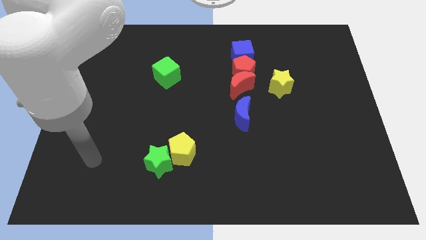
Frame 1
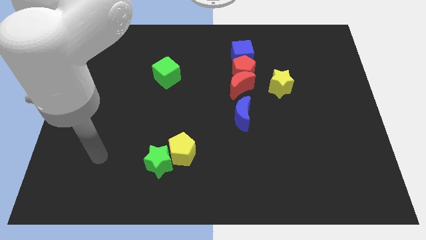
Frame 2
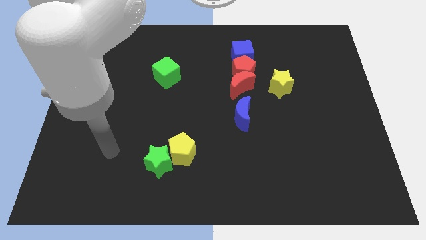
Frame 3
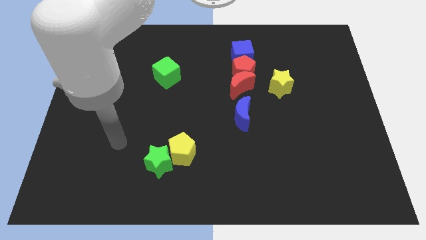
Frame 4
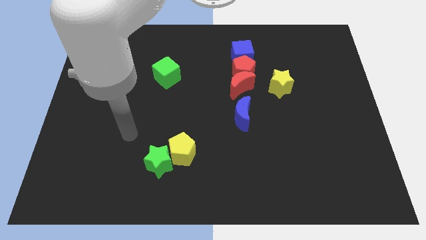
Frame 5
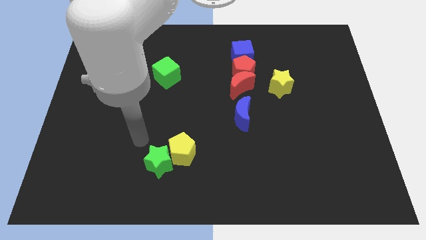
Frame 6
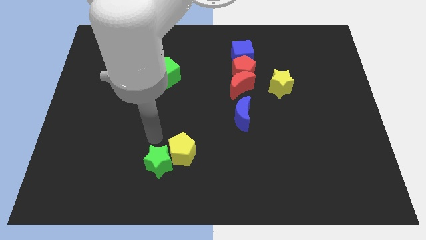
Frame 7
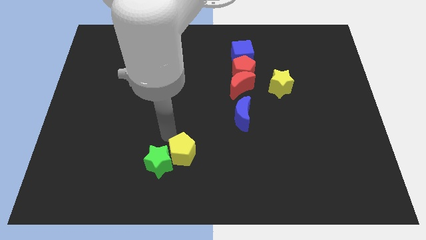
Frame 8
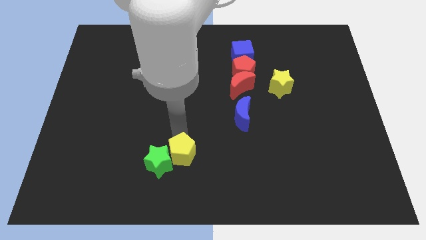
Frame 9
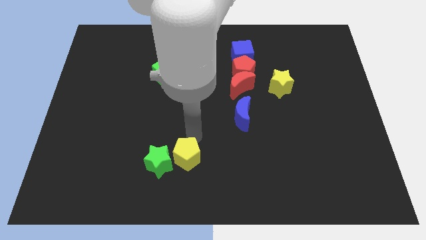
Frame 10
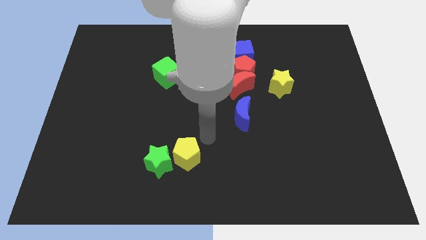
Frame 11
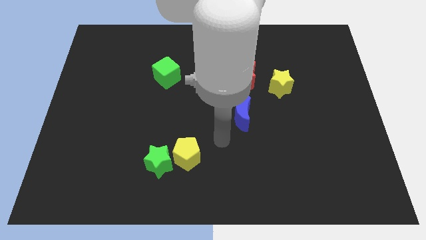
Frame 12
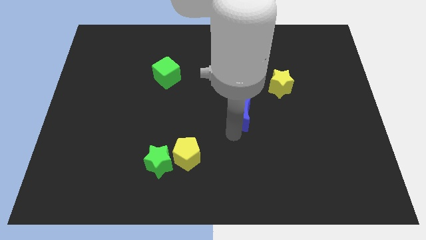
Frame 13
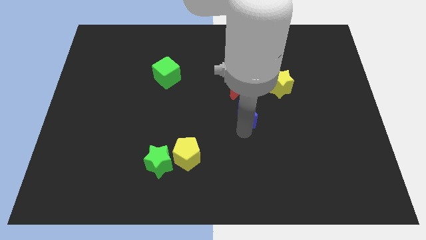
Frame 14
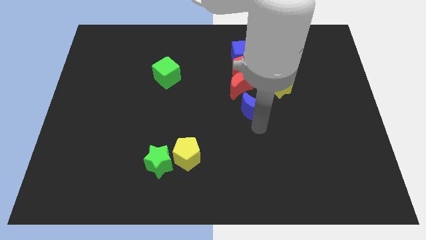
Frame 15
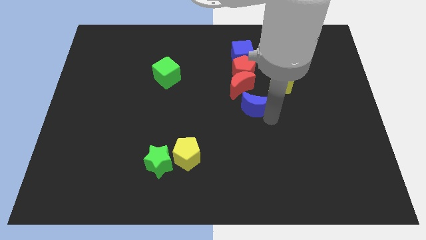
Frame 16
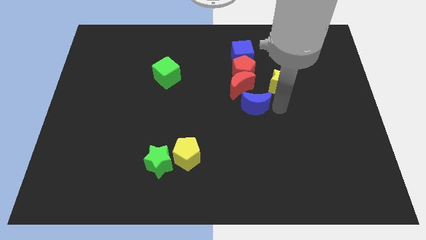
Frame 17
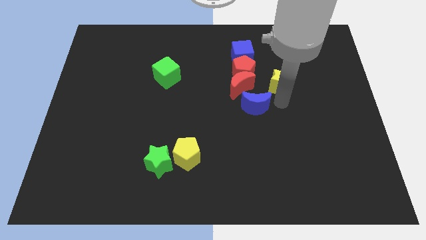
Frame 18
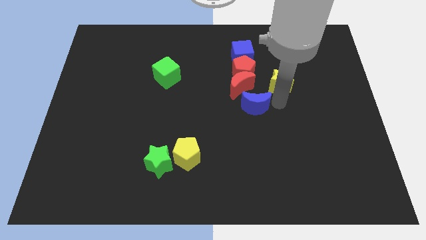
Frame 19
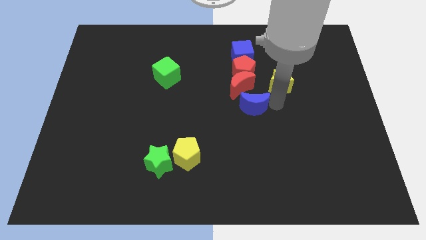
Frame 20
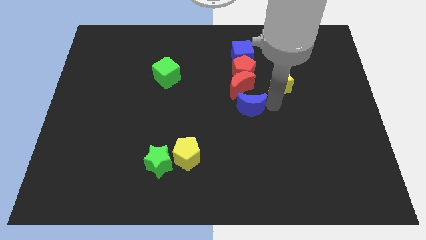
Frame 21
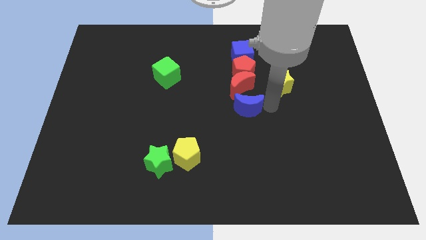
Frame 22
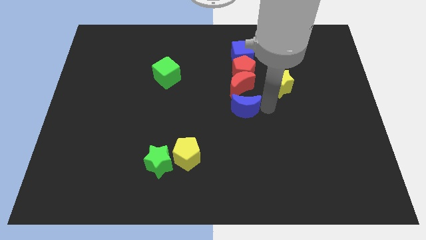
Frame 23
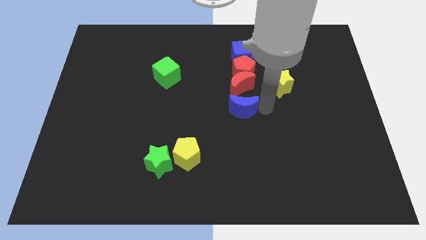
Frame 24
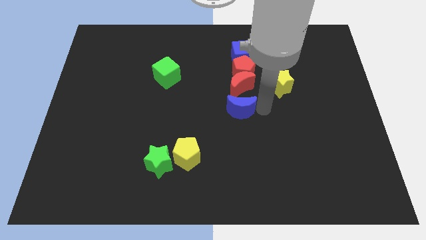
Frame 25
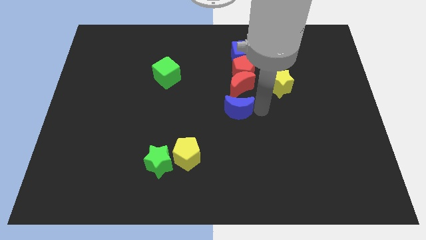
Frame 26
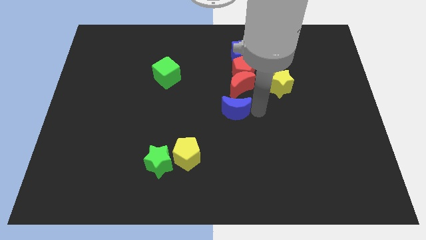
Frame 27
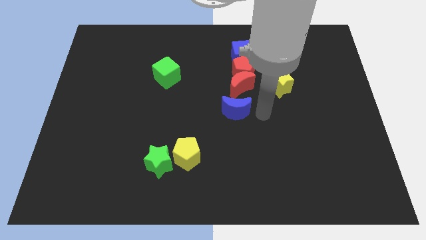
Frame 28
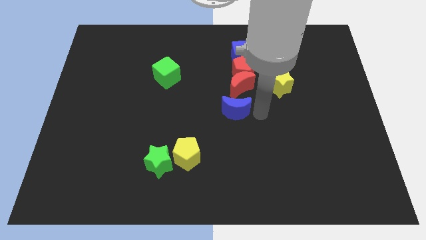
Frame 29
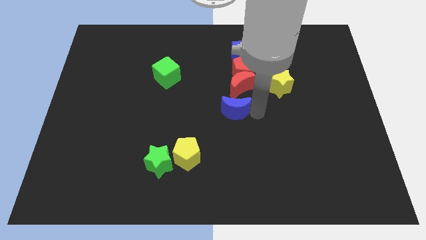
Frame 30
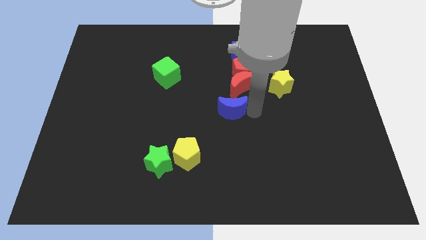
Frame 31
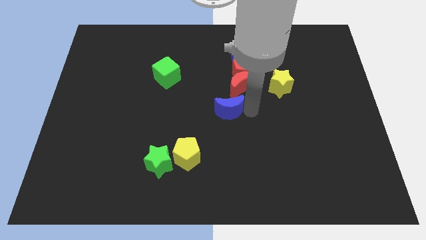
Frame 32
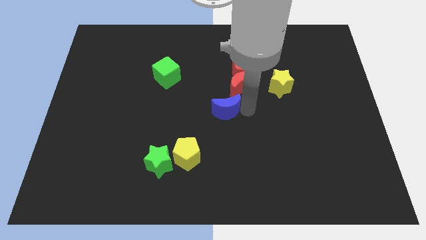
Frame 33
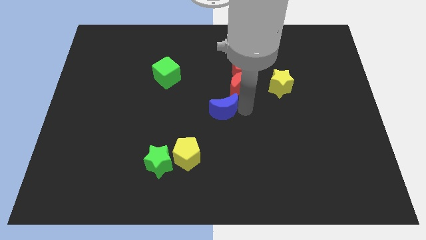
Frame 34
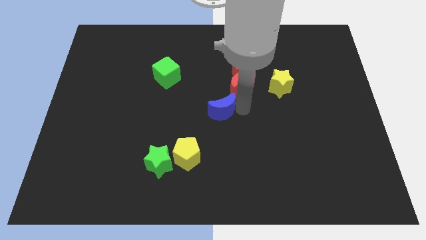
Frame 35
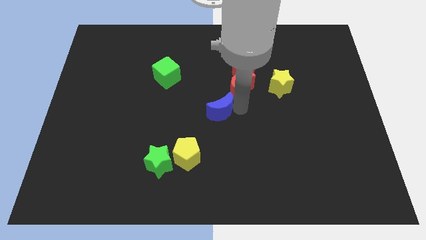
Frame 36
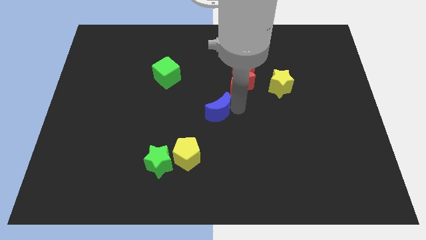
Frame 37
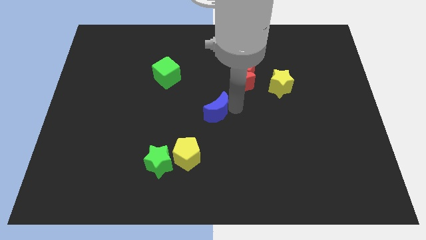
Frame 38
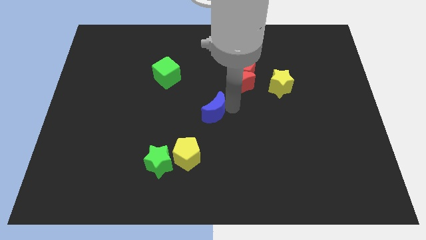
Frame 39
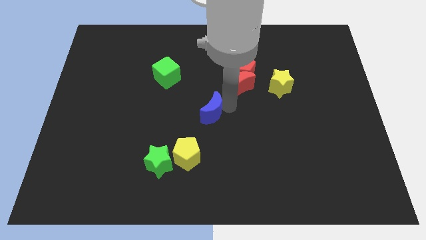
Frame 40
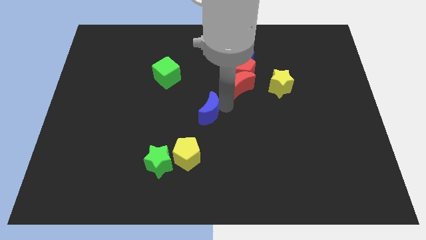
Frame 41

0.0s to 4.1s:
push the blue moon somewhat left

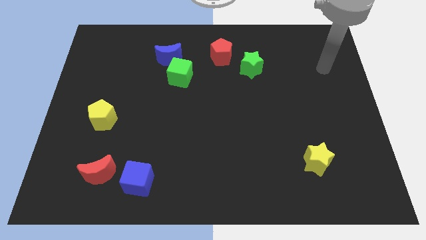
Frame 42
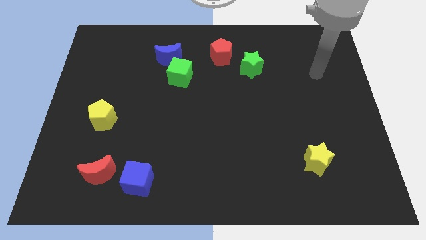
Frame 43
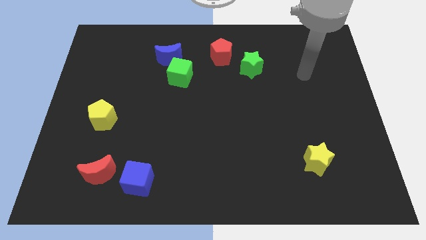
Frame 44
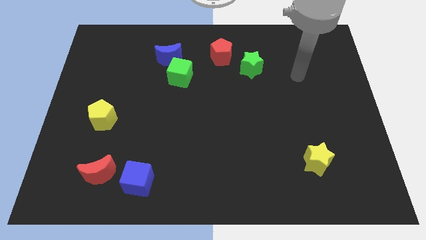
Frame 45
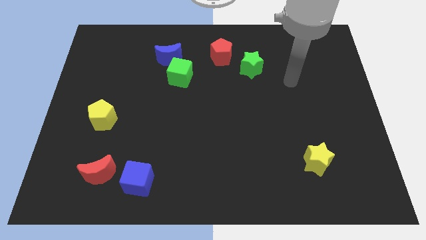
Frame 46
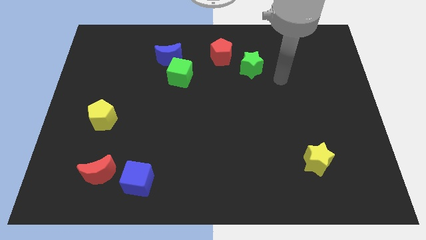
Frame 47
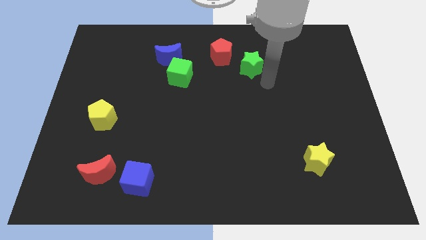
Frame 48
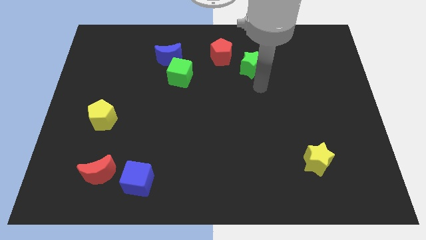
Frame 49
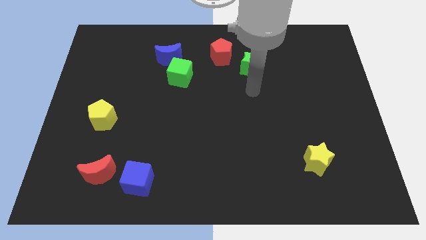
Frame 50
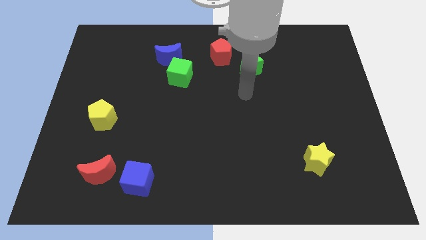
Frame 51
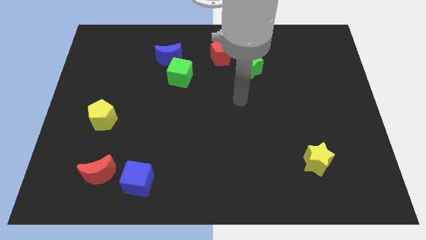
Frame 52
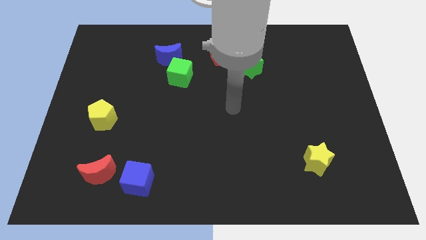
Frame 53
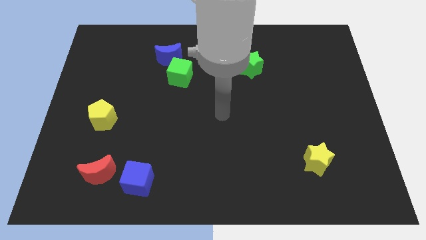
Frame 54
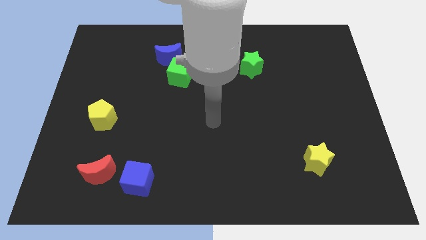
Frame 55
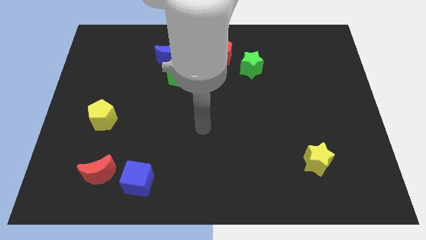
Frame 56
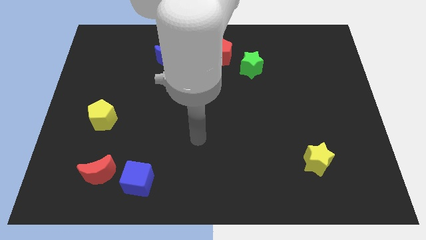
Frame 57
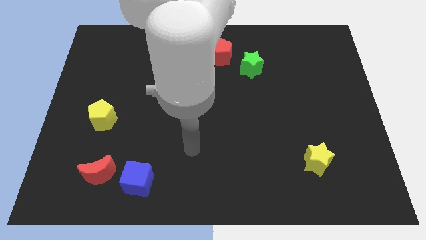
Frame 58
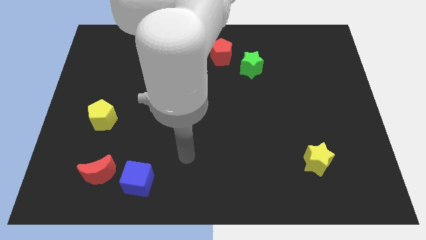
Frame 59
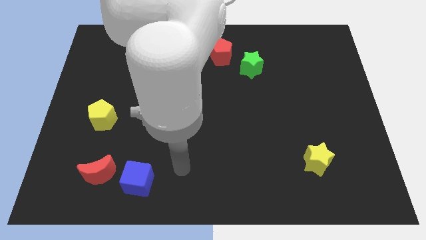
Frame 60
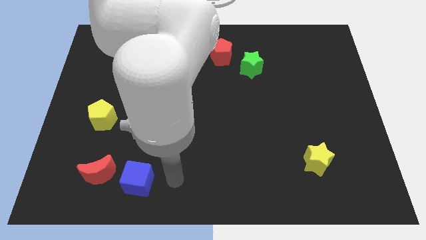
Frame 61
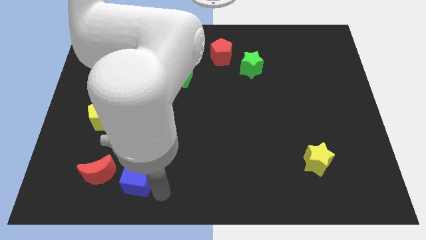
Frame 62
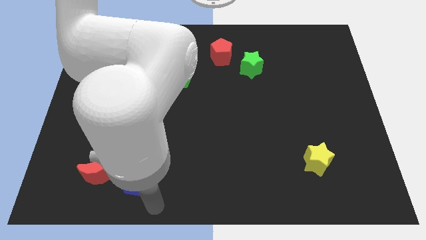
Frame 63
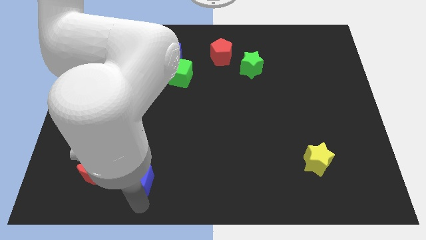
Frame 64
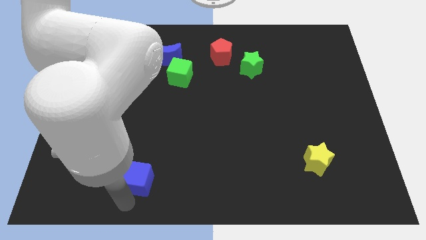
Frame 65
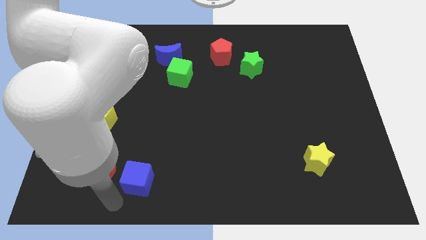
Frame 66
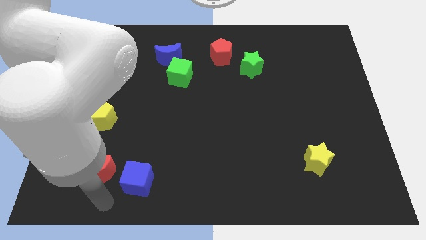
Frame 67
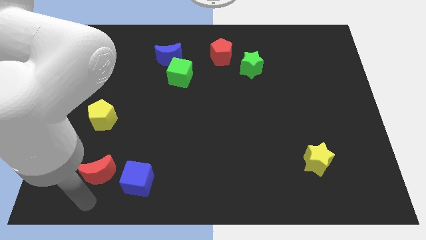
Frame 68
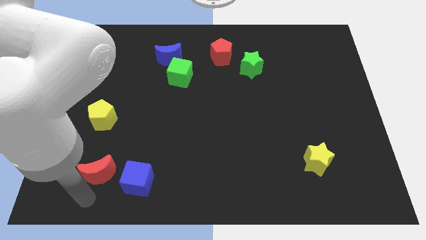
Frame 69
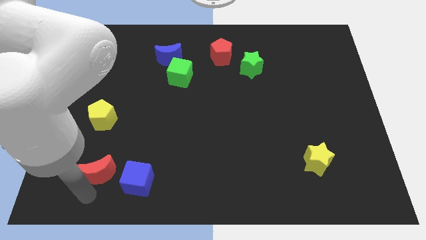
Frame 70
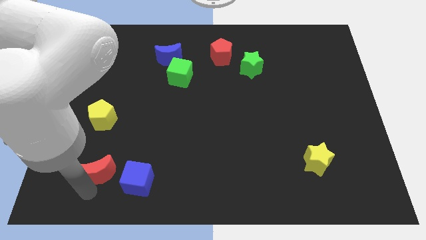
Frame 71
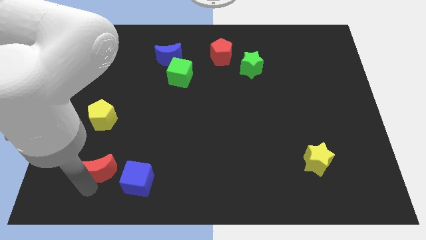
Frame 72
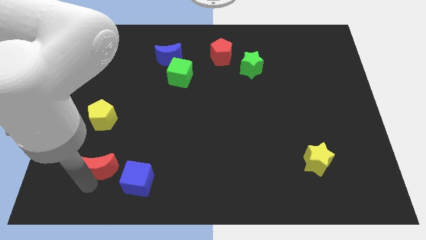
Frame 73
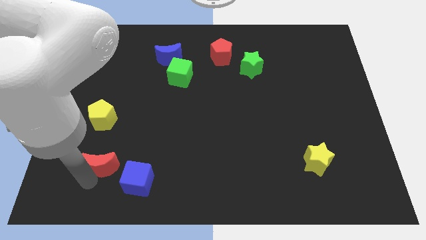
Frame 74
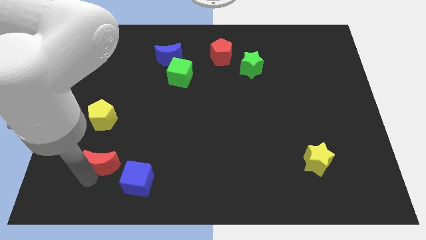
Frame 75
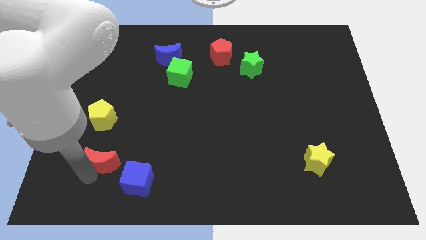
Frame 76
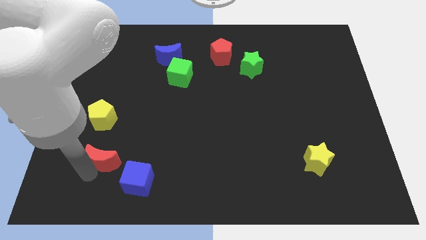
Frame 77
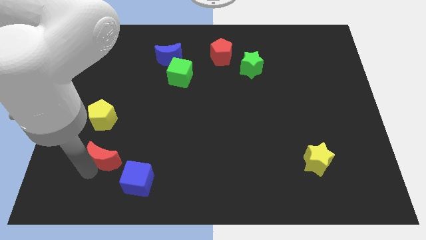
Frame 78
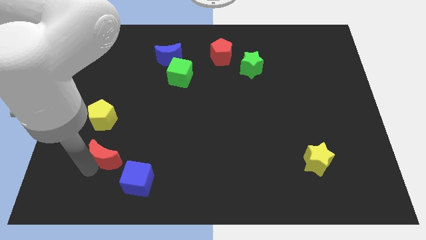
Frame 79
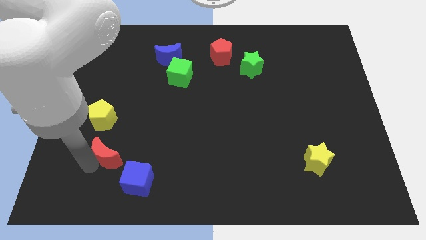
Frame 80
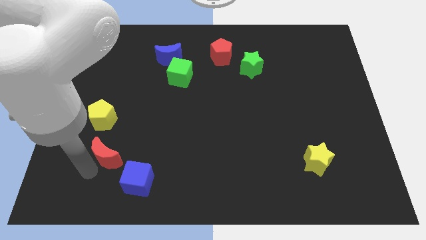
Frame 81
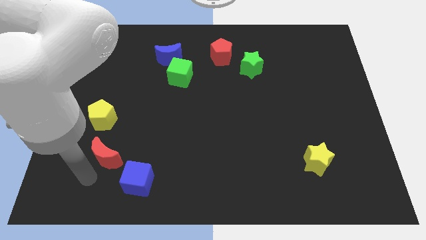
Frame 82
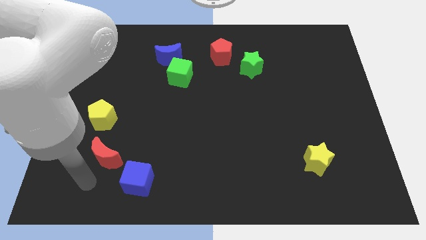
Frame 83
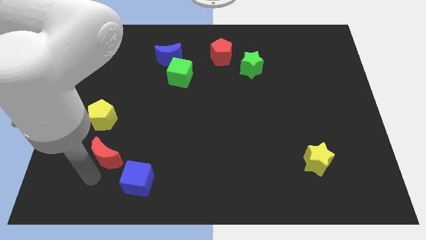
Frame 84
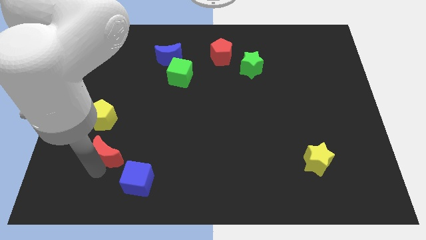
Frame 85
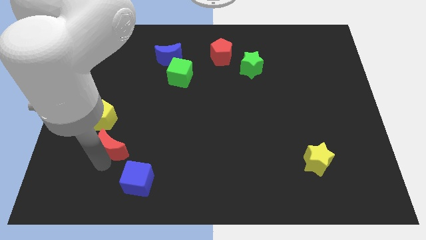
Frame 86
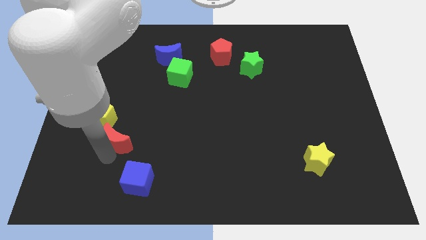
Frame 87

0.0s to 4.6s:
slightly move the red moon up
